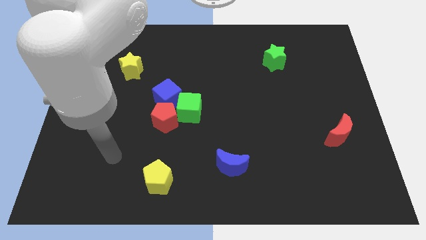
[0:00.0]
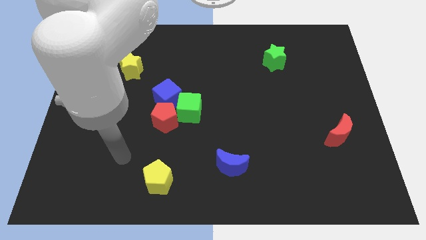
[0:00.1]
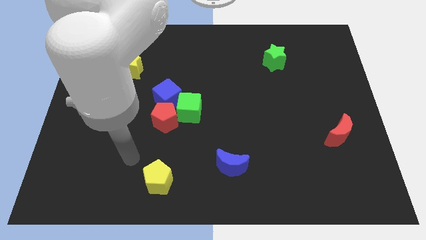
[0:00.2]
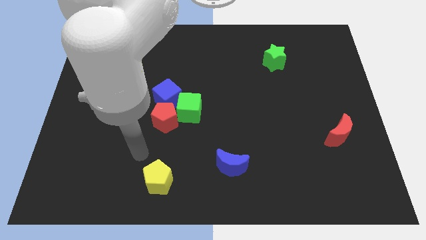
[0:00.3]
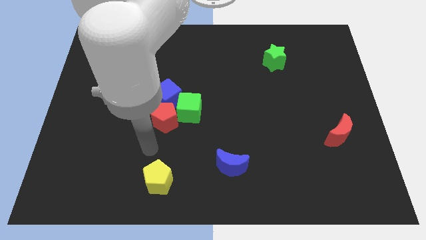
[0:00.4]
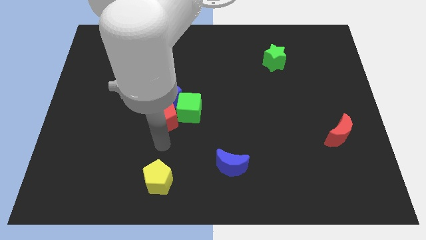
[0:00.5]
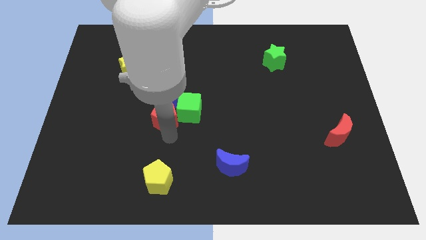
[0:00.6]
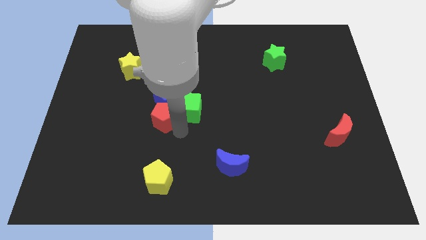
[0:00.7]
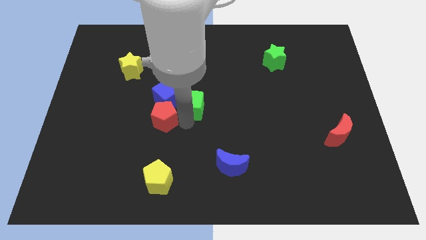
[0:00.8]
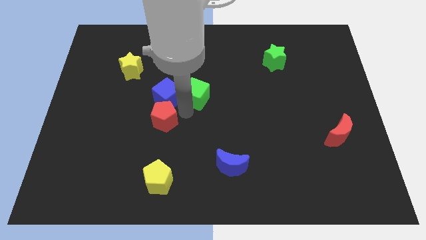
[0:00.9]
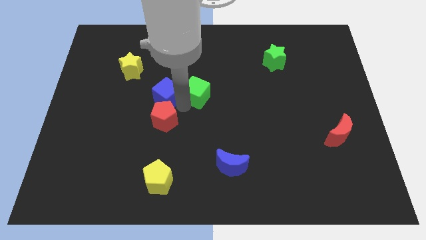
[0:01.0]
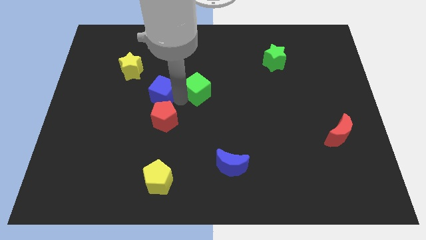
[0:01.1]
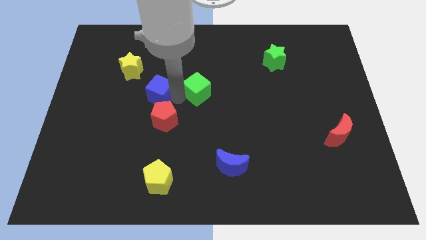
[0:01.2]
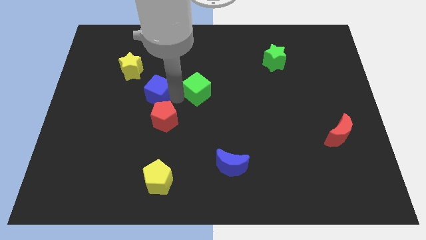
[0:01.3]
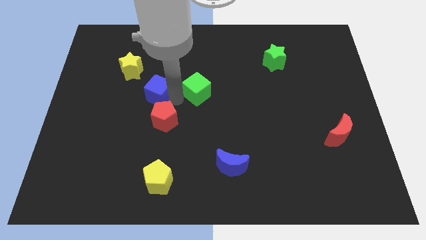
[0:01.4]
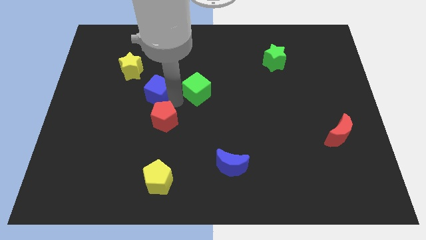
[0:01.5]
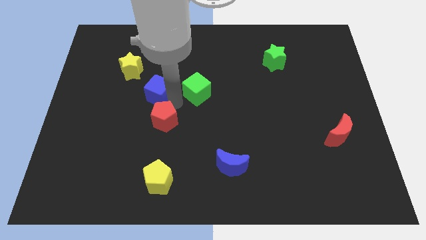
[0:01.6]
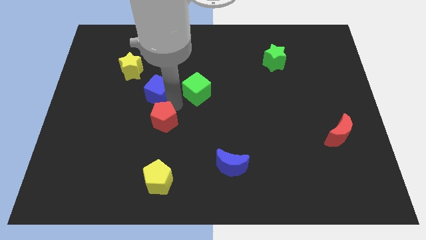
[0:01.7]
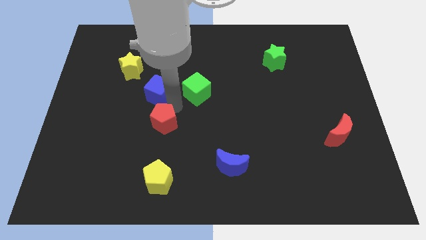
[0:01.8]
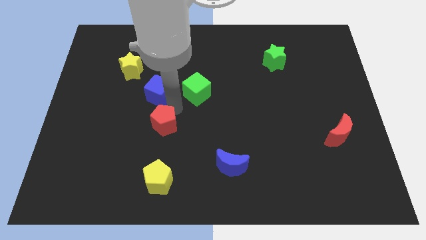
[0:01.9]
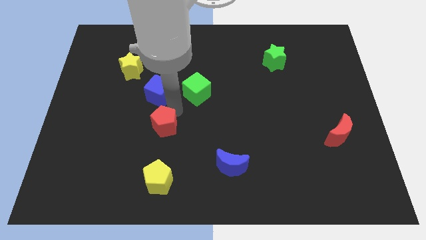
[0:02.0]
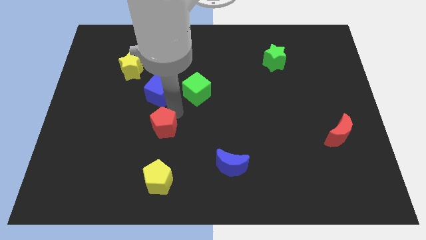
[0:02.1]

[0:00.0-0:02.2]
move the red pentagon away from the green cube and blue cube

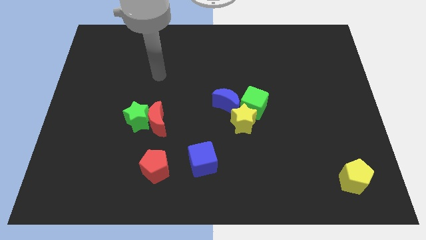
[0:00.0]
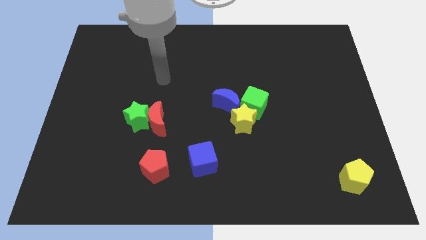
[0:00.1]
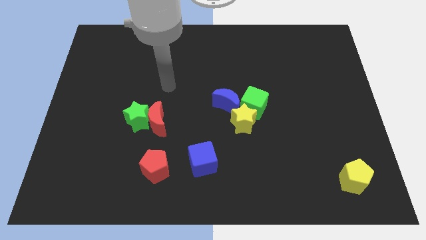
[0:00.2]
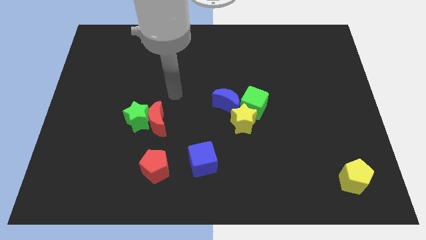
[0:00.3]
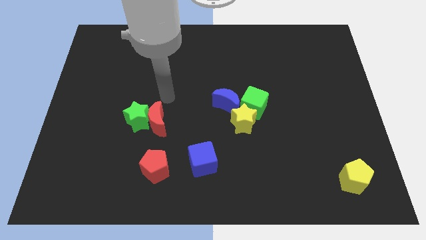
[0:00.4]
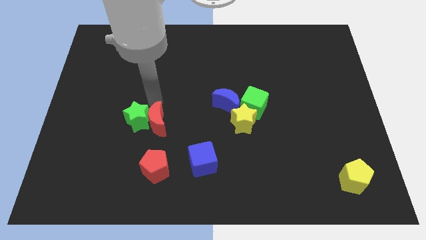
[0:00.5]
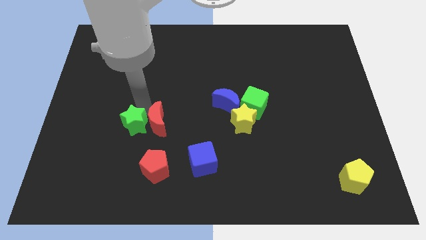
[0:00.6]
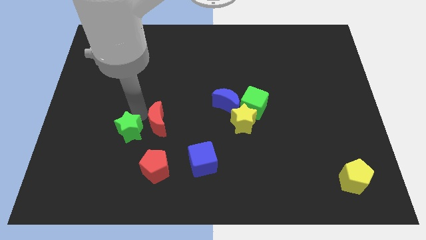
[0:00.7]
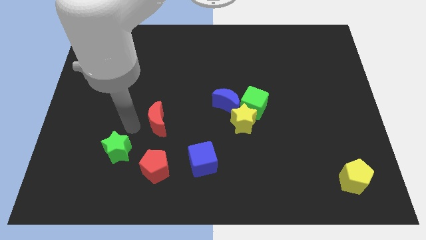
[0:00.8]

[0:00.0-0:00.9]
separate the red moon from the green star

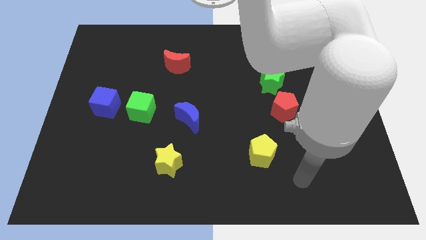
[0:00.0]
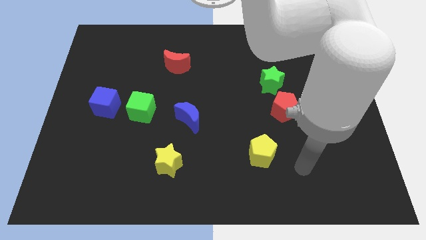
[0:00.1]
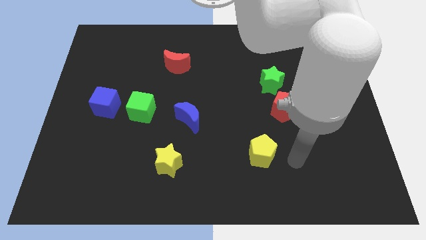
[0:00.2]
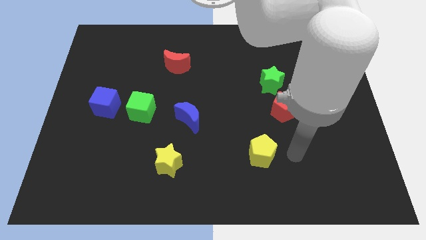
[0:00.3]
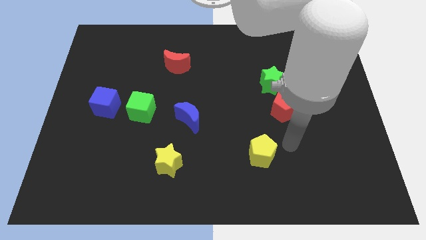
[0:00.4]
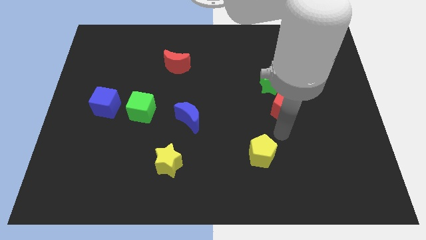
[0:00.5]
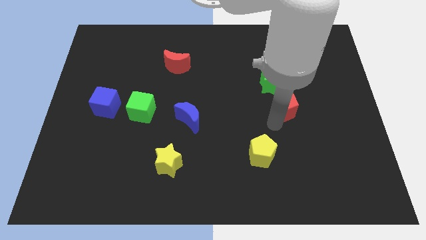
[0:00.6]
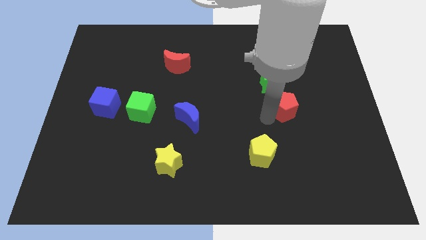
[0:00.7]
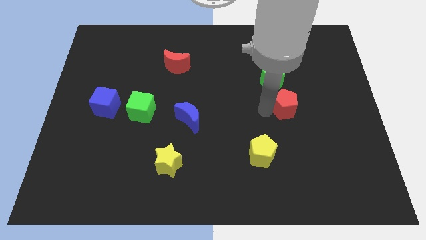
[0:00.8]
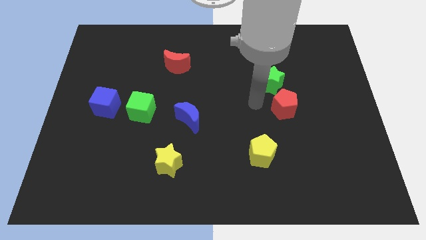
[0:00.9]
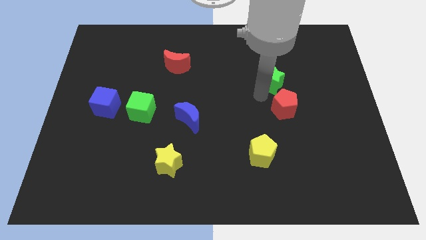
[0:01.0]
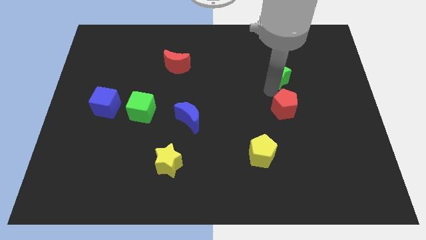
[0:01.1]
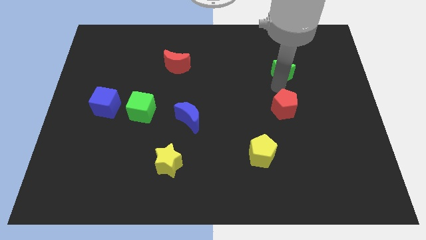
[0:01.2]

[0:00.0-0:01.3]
separate the red pentagon from the green star

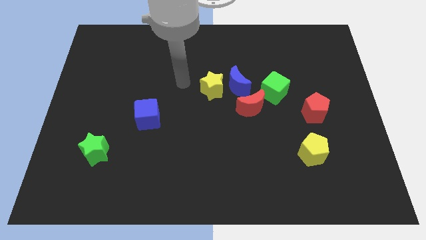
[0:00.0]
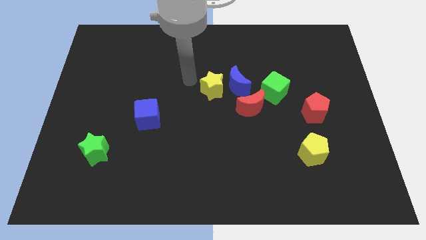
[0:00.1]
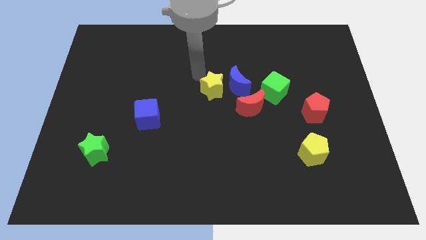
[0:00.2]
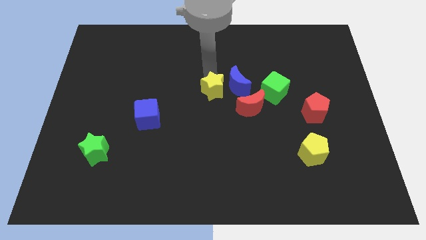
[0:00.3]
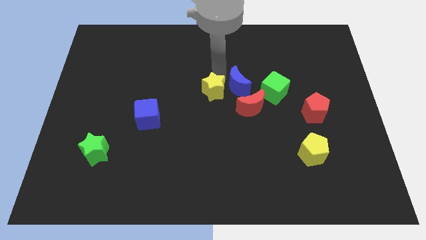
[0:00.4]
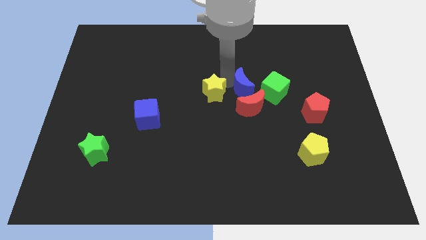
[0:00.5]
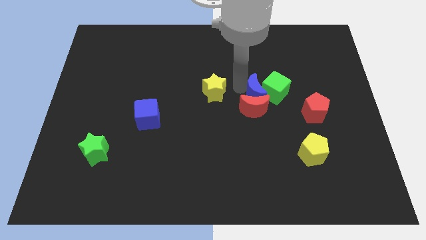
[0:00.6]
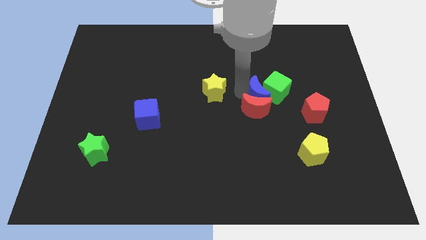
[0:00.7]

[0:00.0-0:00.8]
pull the yellow star apart from the blue moon

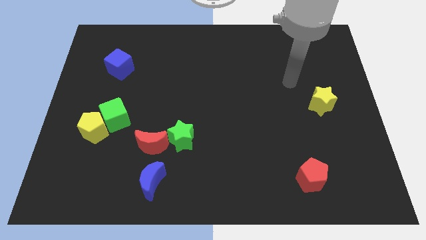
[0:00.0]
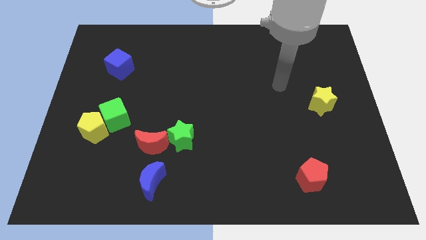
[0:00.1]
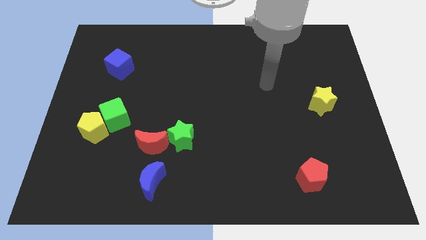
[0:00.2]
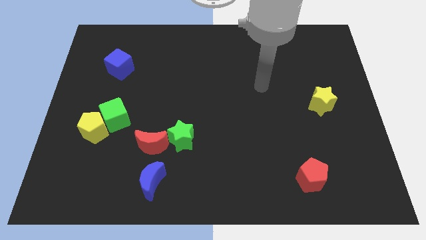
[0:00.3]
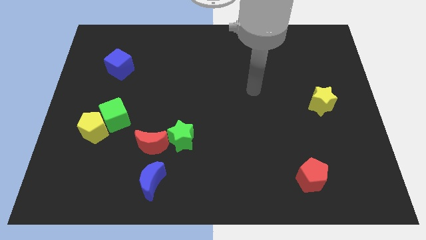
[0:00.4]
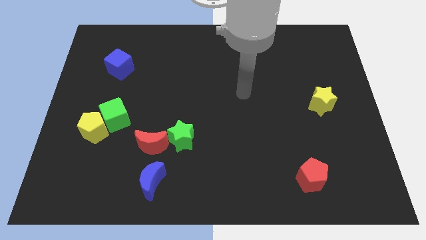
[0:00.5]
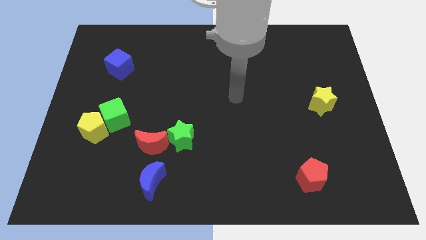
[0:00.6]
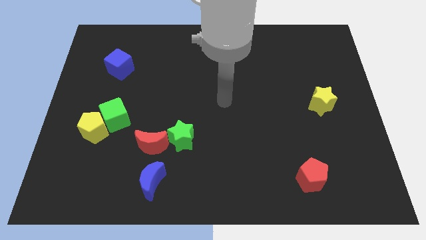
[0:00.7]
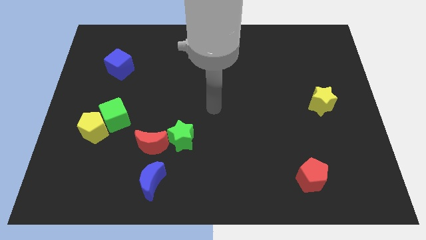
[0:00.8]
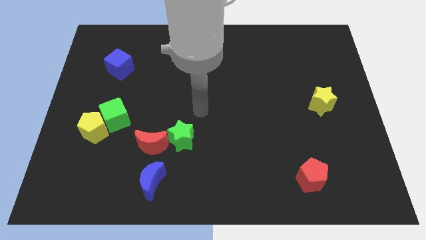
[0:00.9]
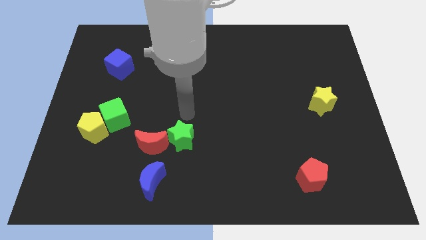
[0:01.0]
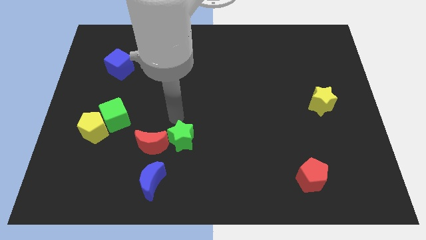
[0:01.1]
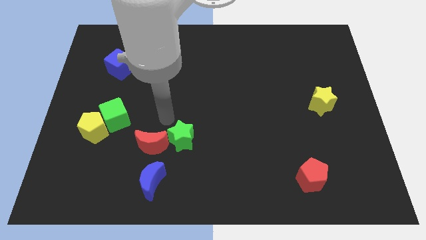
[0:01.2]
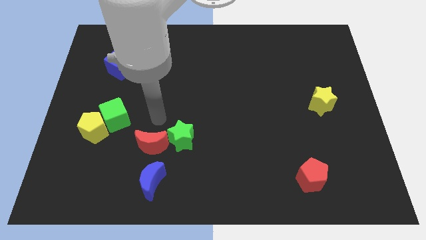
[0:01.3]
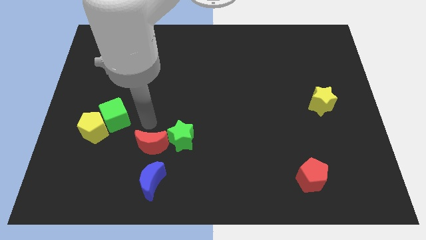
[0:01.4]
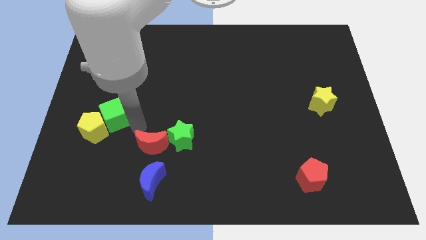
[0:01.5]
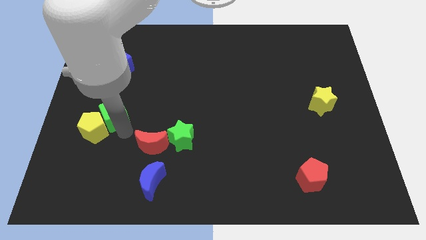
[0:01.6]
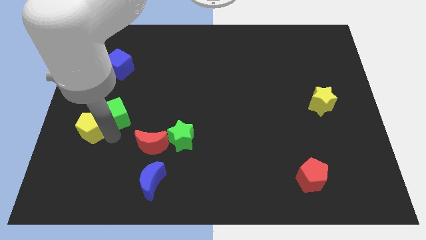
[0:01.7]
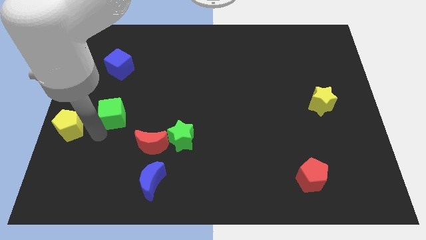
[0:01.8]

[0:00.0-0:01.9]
move the green cube away from the yellow pentagon

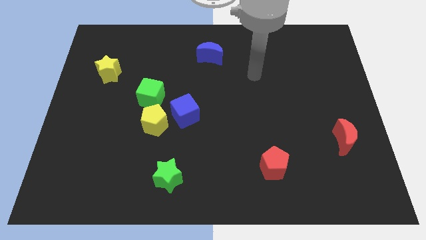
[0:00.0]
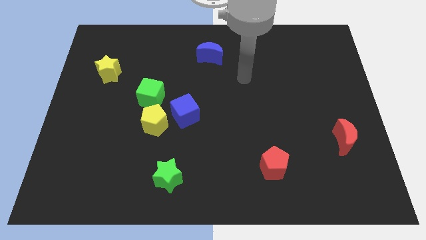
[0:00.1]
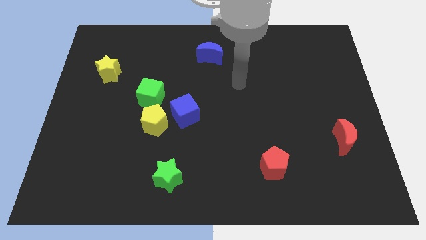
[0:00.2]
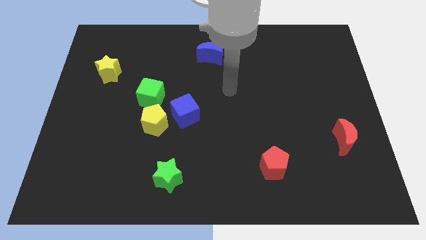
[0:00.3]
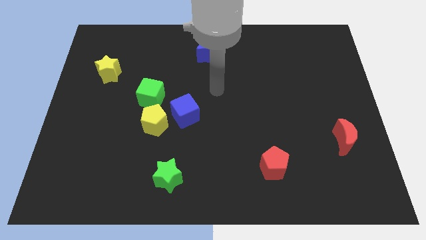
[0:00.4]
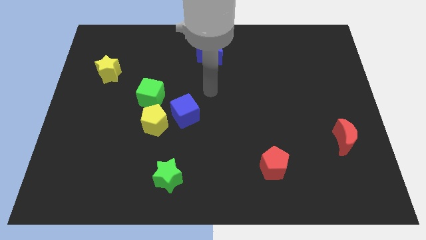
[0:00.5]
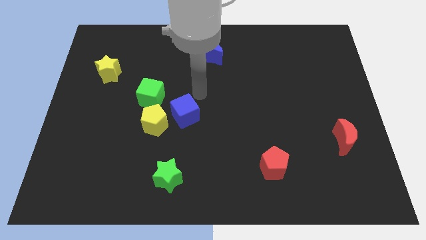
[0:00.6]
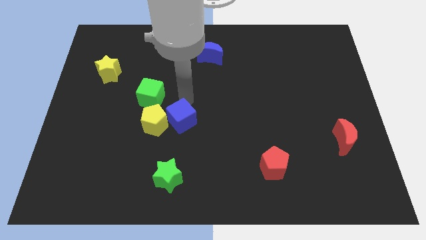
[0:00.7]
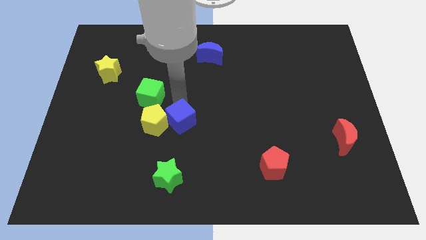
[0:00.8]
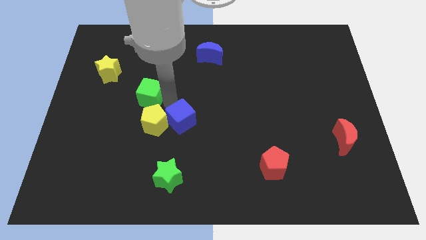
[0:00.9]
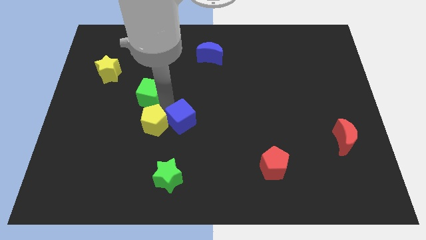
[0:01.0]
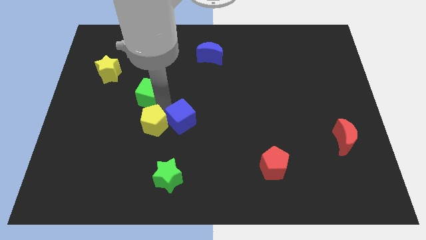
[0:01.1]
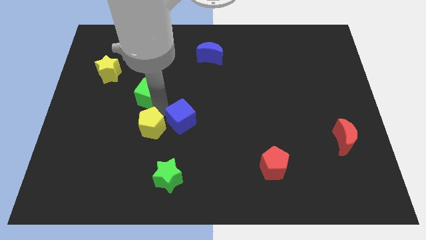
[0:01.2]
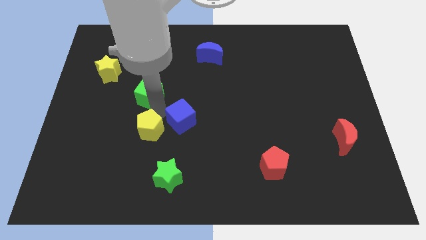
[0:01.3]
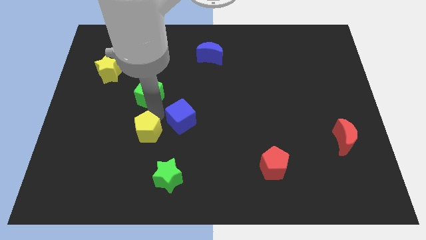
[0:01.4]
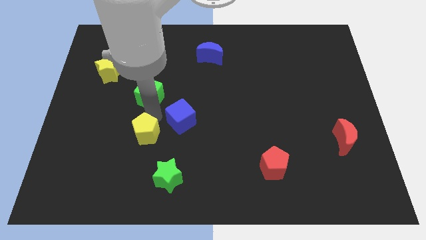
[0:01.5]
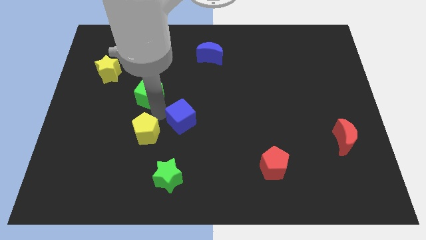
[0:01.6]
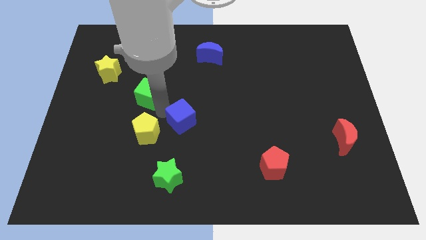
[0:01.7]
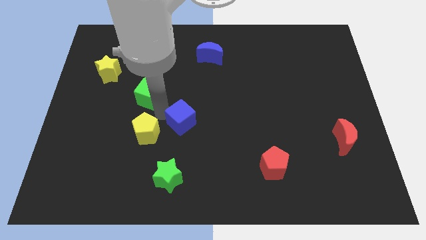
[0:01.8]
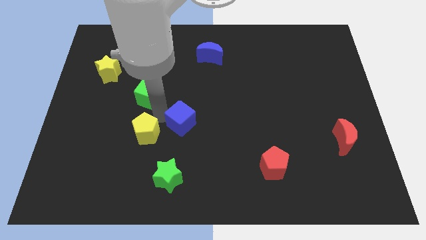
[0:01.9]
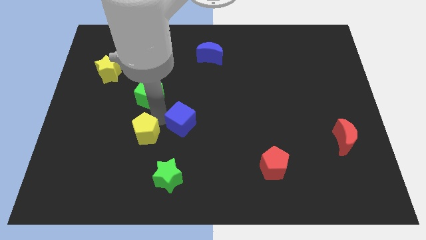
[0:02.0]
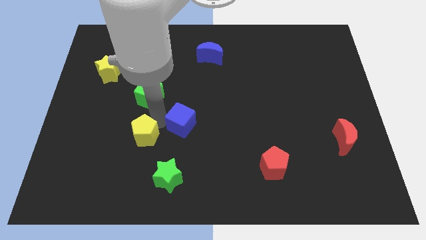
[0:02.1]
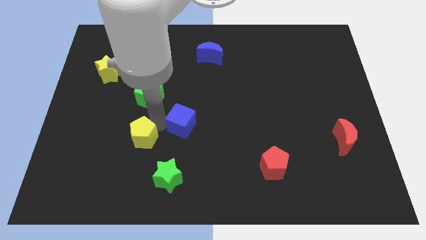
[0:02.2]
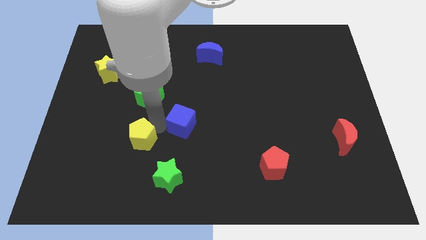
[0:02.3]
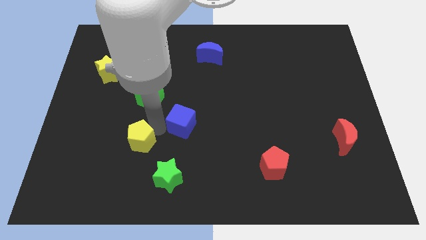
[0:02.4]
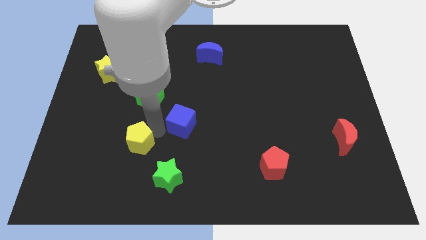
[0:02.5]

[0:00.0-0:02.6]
separate the yellow pentagon from the blue cube and green cube
